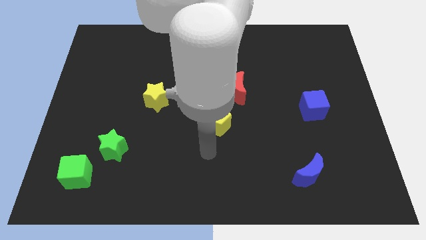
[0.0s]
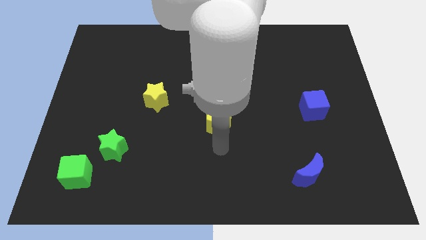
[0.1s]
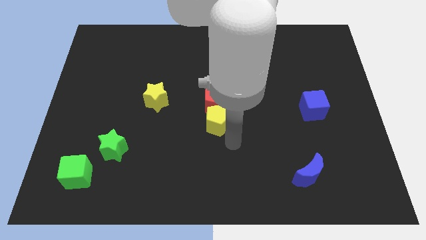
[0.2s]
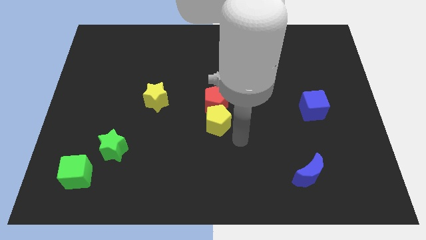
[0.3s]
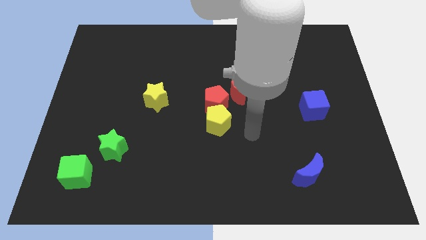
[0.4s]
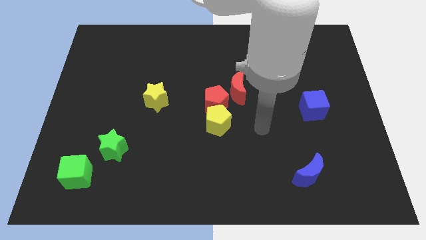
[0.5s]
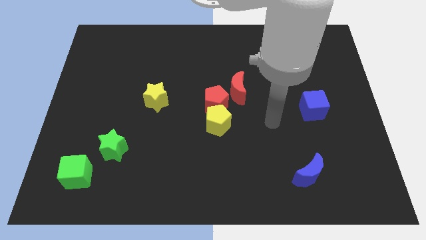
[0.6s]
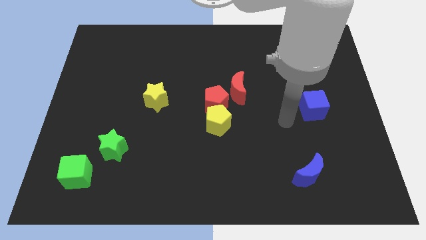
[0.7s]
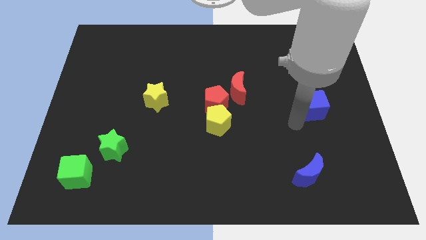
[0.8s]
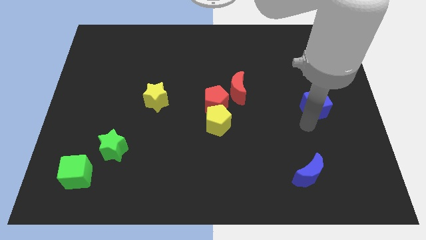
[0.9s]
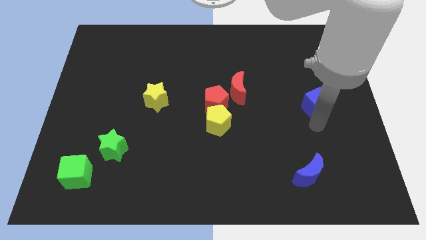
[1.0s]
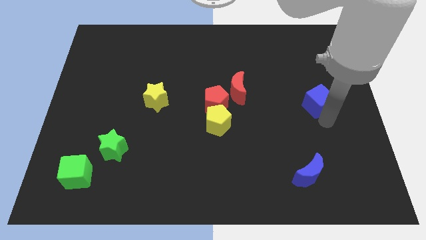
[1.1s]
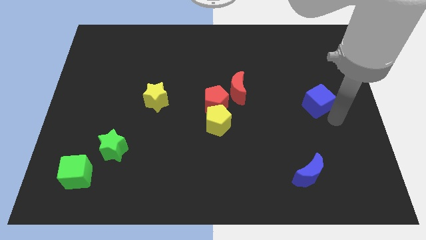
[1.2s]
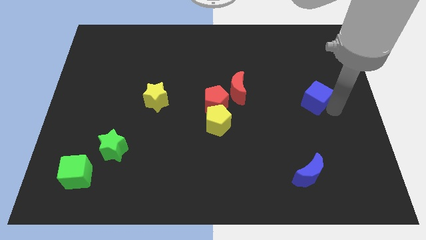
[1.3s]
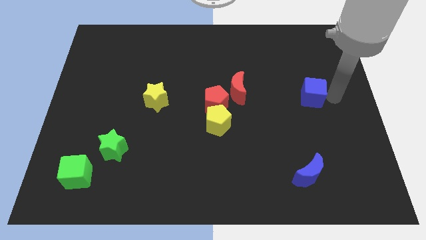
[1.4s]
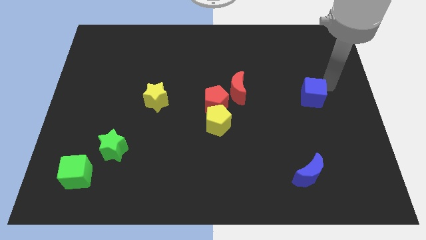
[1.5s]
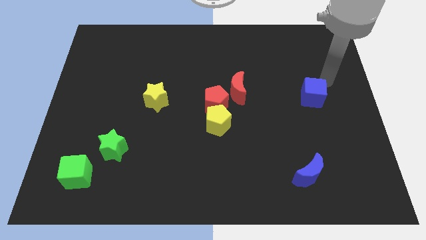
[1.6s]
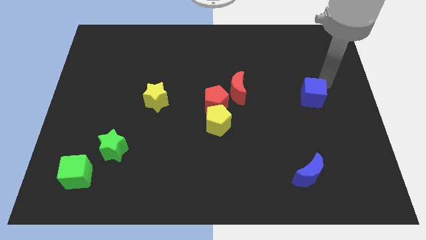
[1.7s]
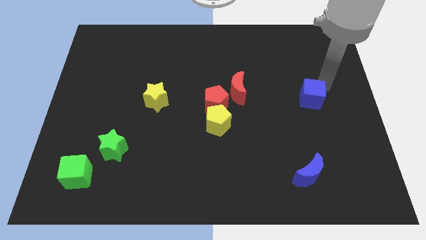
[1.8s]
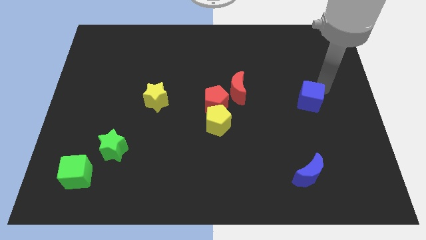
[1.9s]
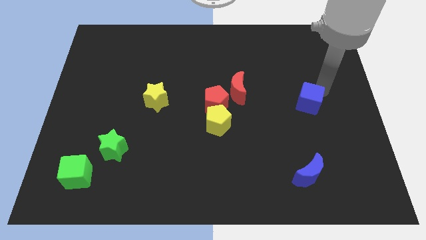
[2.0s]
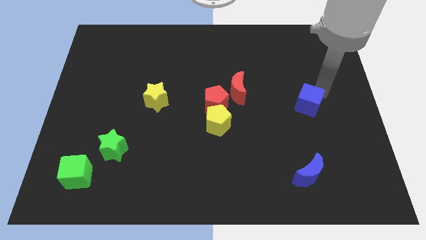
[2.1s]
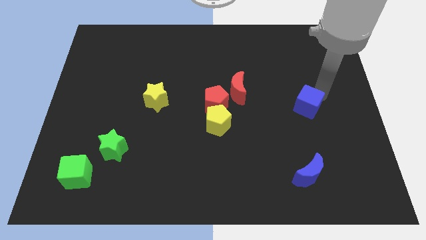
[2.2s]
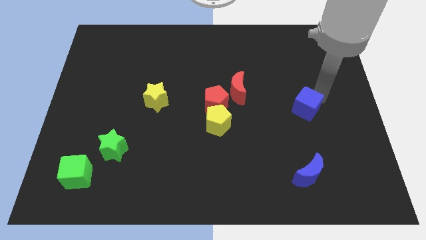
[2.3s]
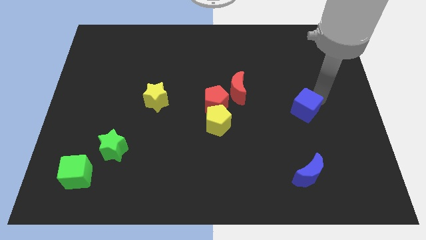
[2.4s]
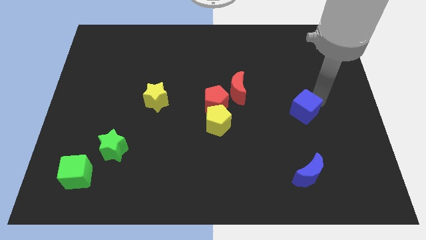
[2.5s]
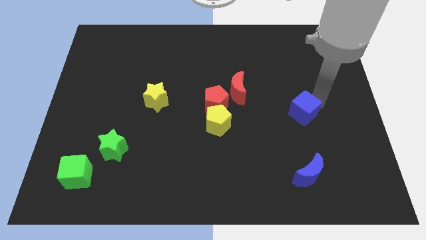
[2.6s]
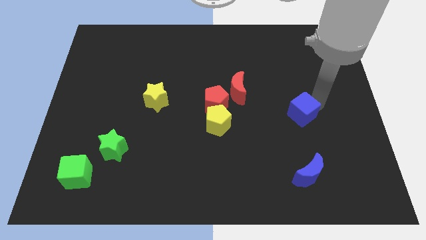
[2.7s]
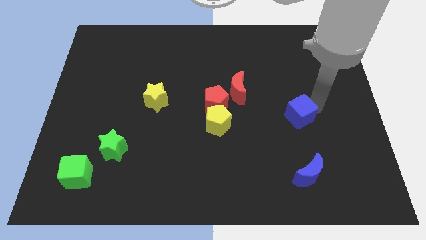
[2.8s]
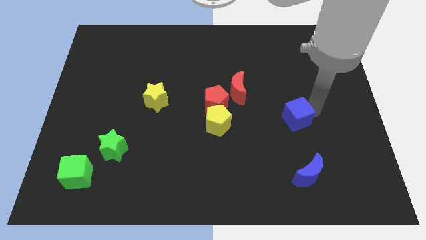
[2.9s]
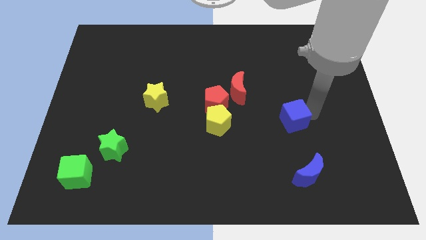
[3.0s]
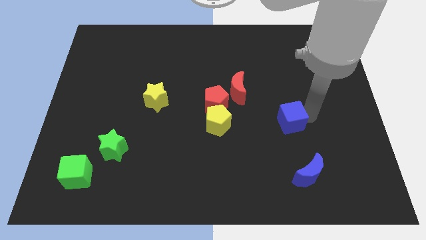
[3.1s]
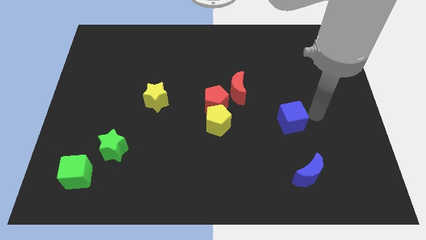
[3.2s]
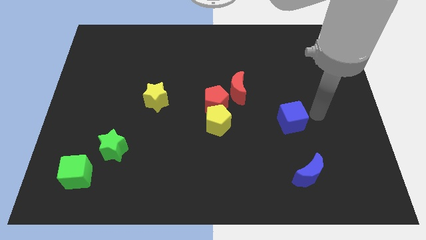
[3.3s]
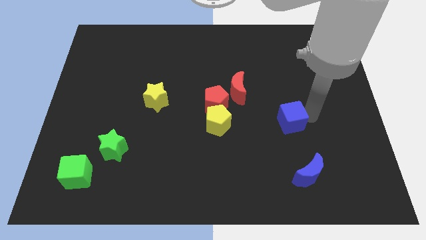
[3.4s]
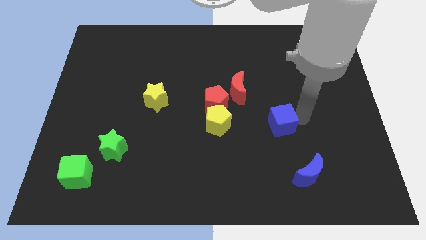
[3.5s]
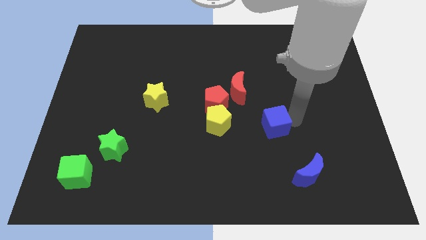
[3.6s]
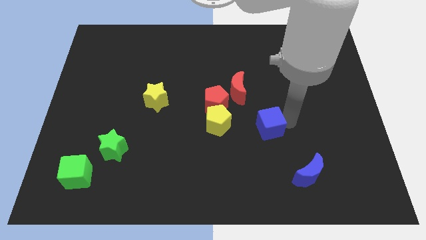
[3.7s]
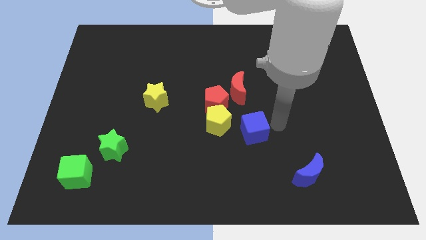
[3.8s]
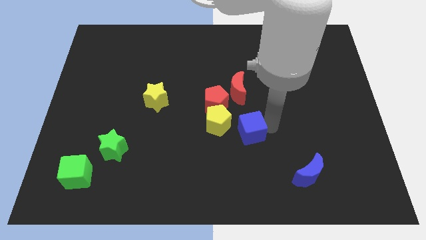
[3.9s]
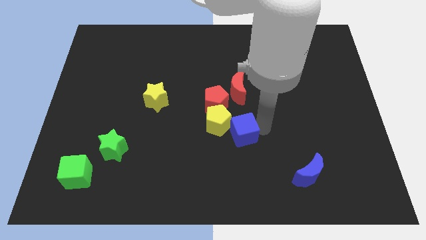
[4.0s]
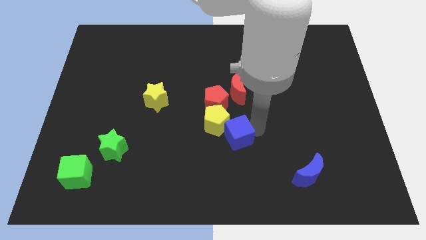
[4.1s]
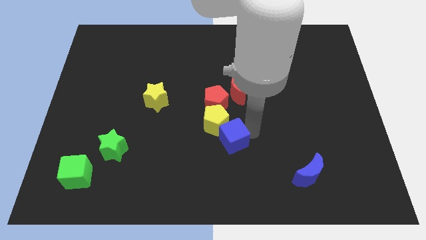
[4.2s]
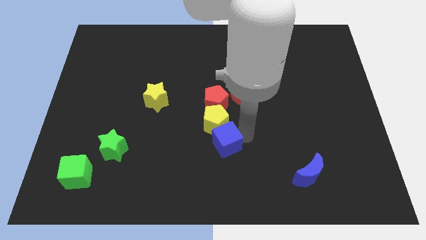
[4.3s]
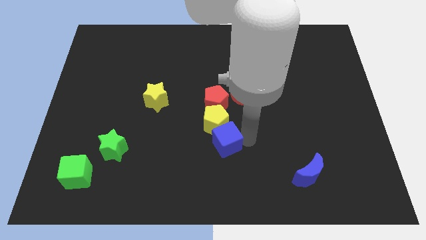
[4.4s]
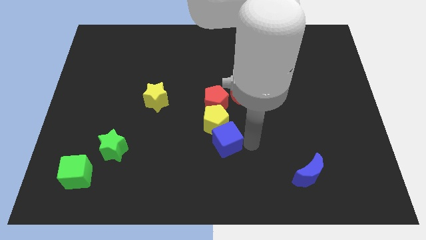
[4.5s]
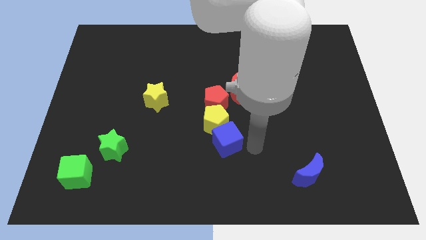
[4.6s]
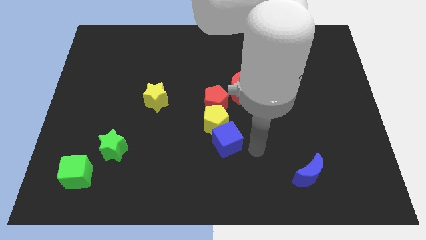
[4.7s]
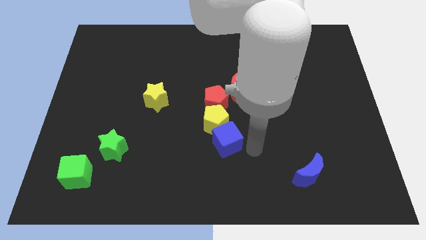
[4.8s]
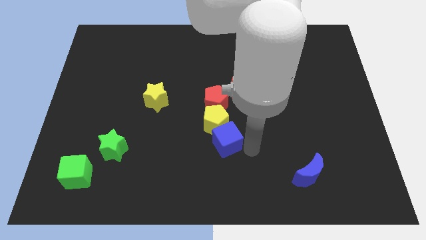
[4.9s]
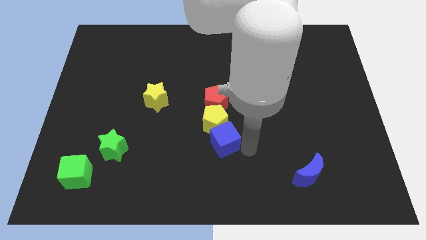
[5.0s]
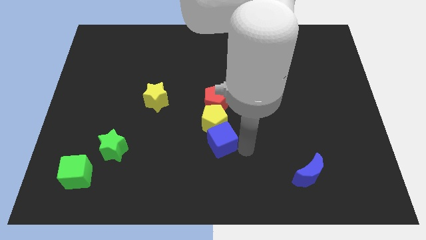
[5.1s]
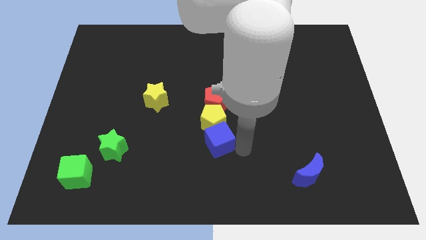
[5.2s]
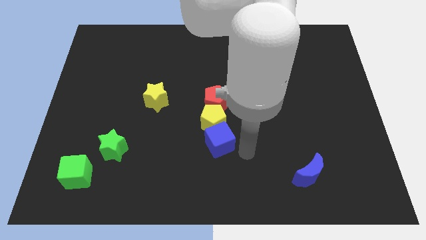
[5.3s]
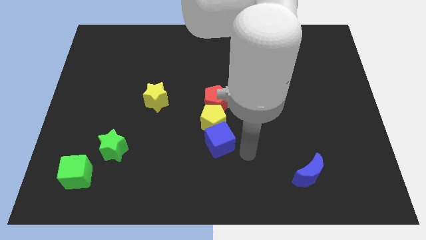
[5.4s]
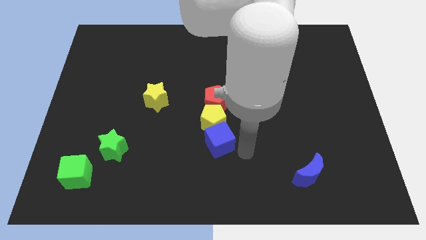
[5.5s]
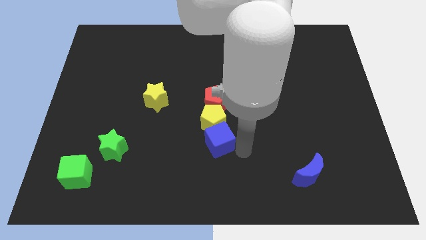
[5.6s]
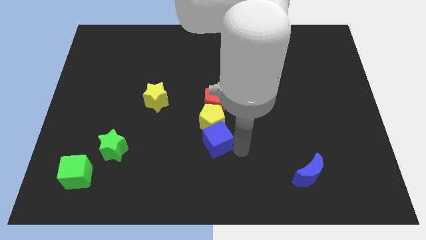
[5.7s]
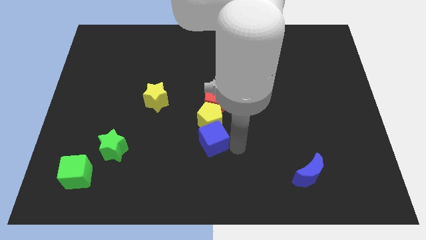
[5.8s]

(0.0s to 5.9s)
slide the blue cube left

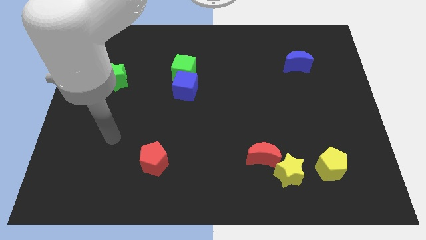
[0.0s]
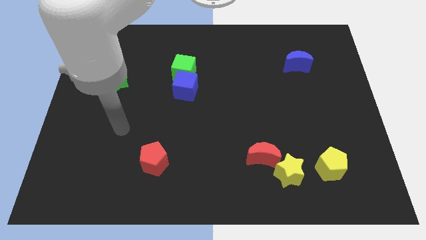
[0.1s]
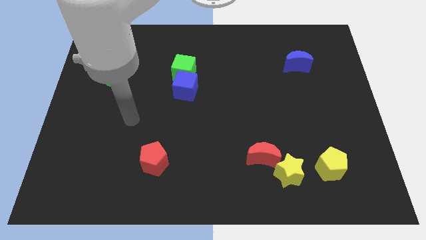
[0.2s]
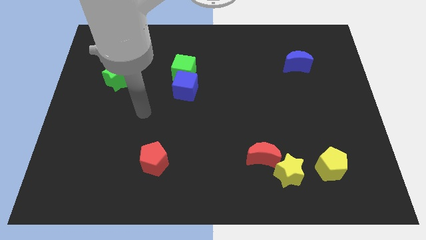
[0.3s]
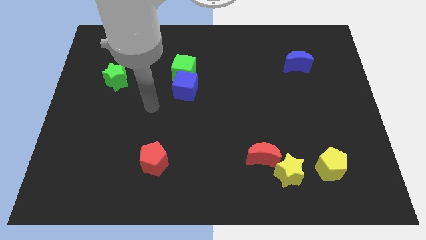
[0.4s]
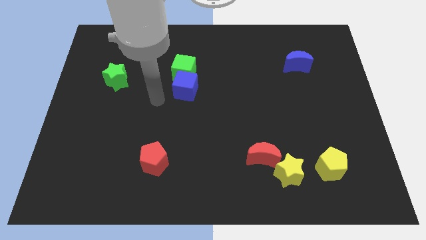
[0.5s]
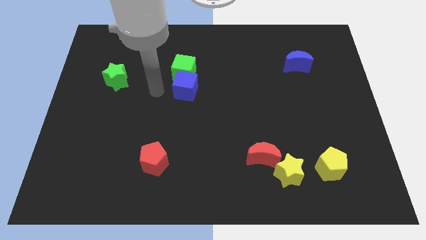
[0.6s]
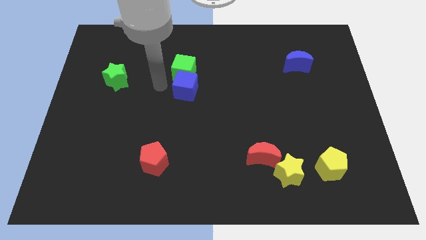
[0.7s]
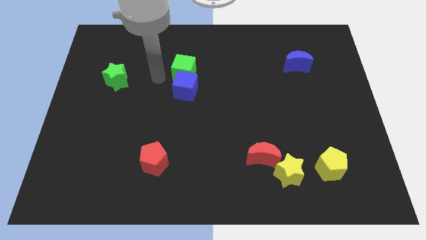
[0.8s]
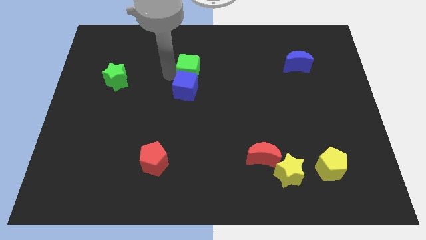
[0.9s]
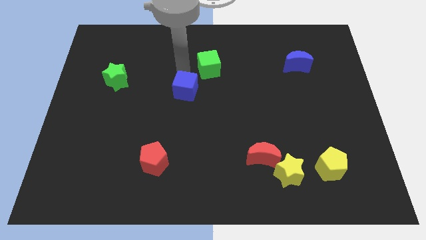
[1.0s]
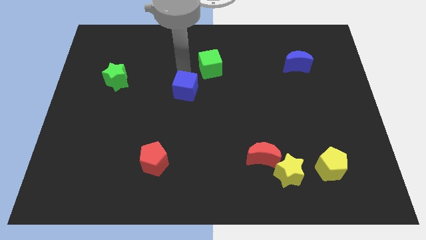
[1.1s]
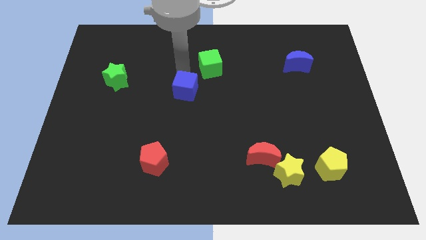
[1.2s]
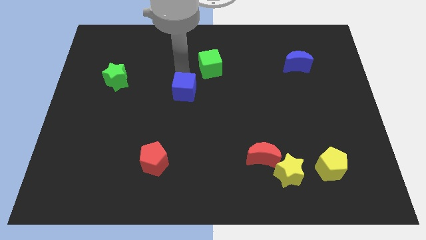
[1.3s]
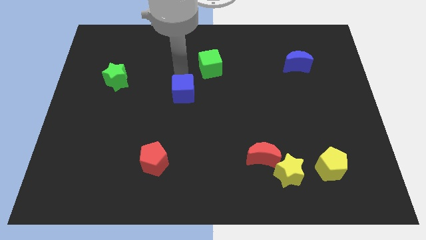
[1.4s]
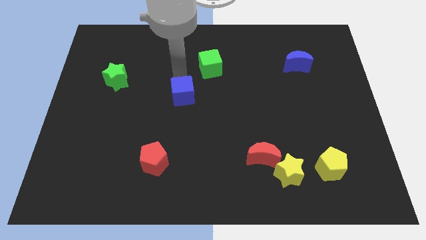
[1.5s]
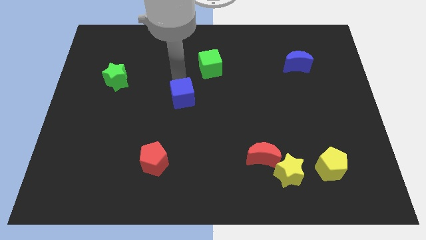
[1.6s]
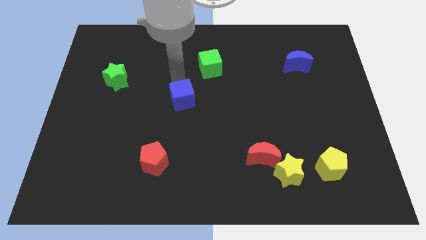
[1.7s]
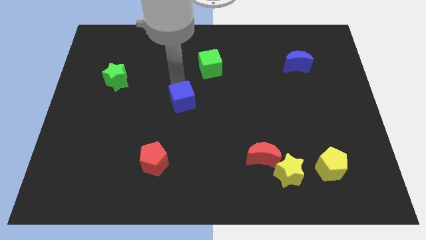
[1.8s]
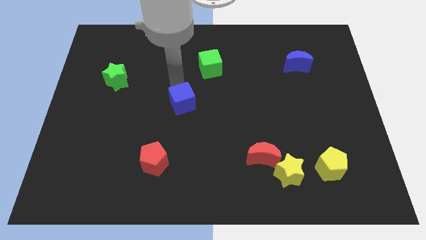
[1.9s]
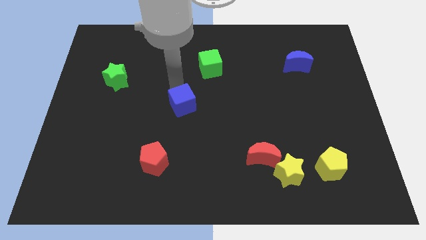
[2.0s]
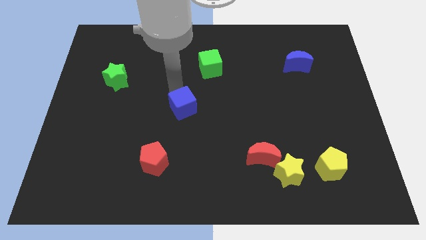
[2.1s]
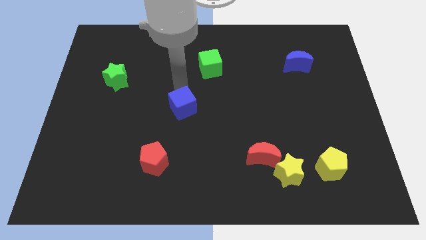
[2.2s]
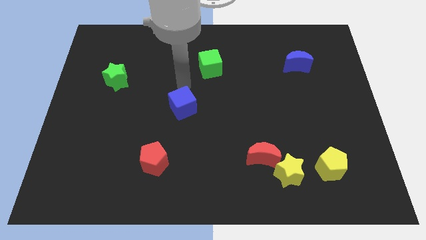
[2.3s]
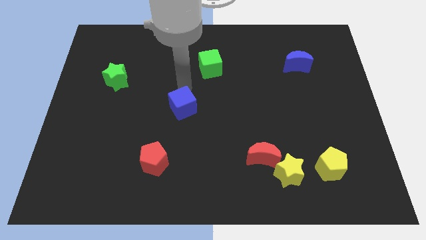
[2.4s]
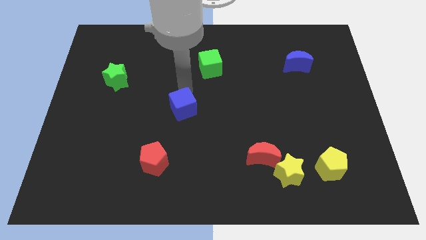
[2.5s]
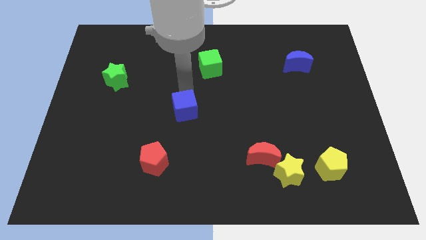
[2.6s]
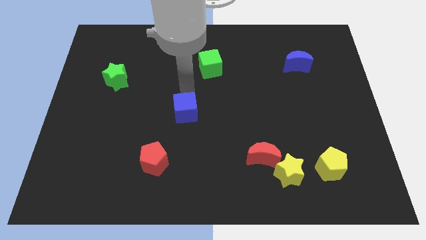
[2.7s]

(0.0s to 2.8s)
slightly move the blue cube down
